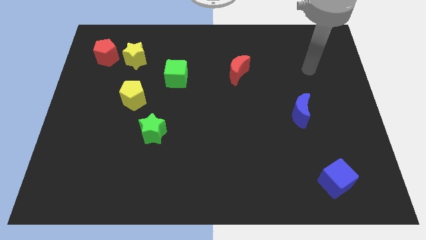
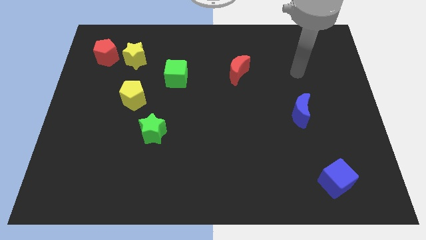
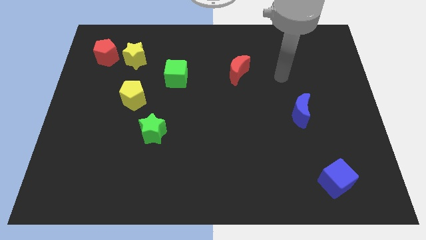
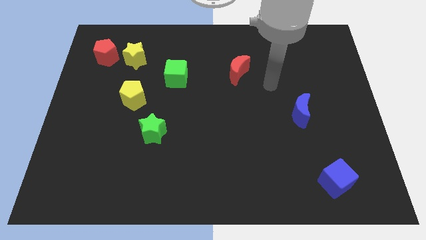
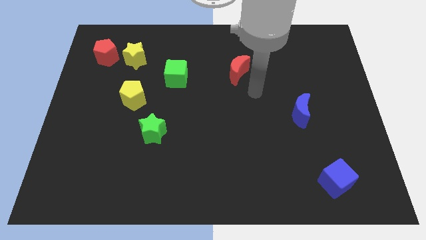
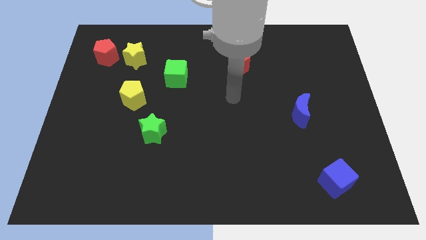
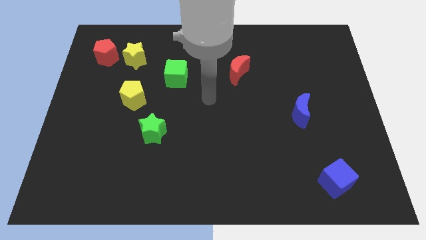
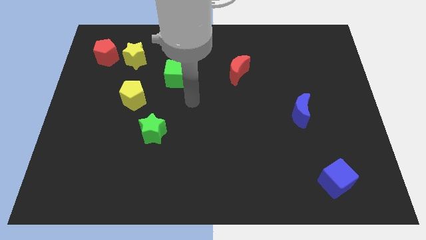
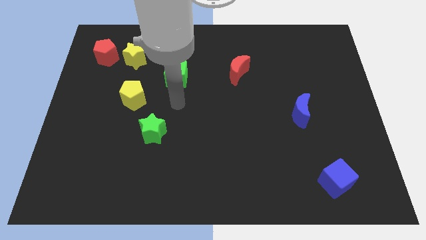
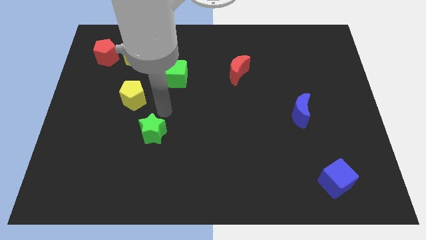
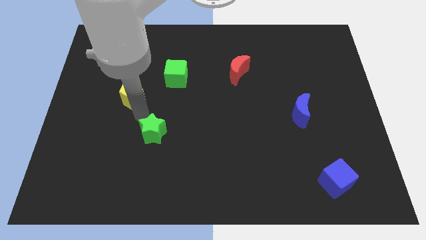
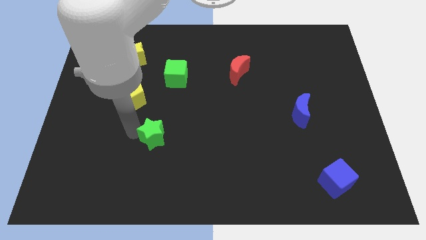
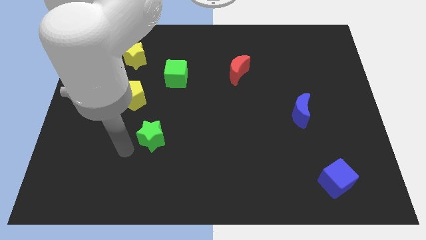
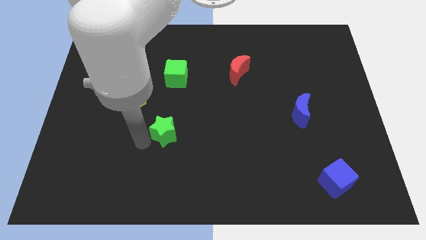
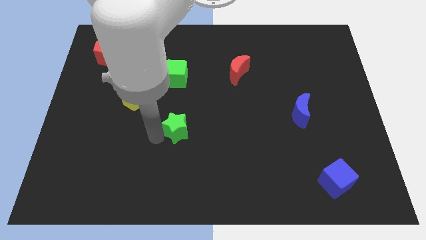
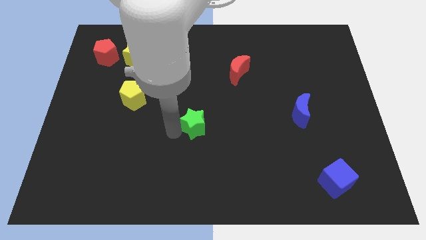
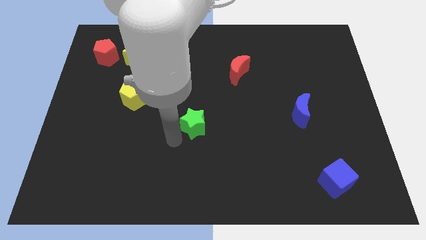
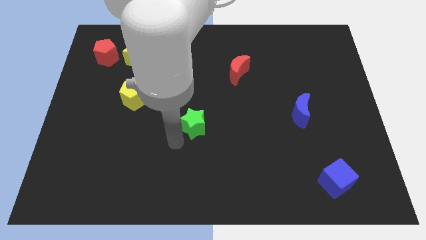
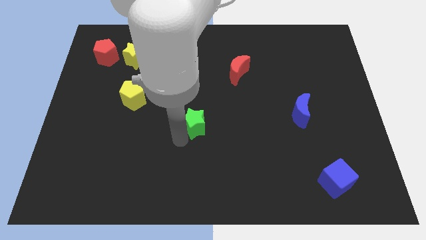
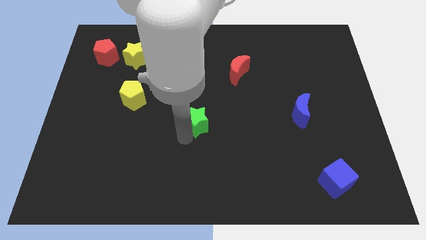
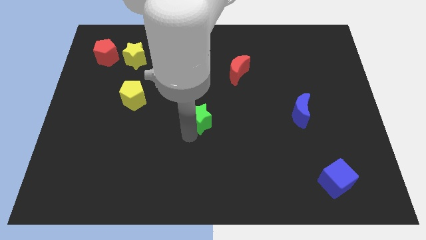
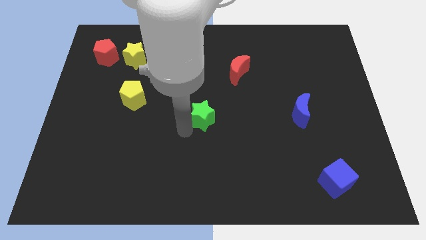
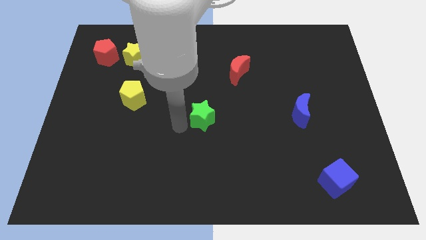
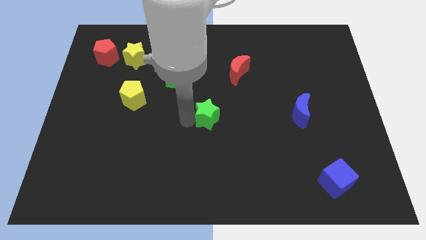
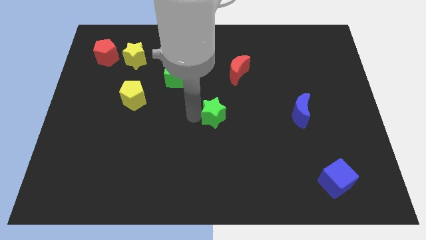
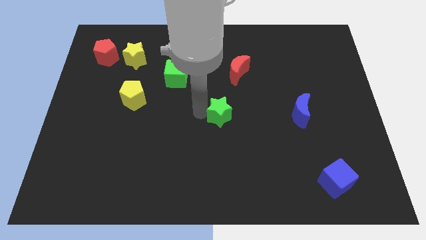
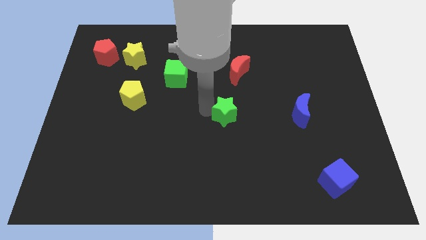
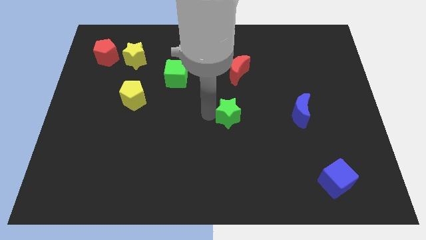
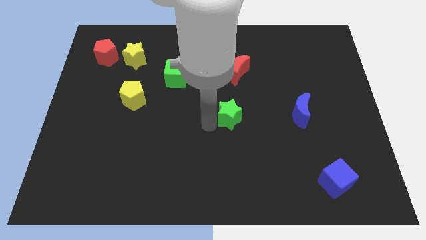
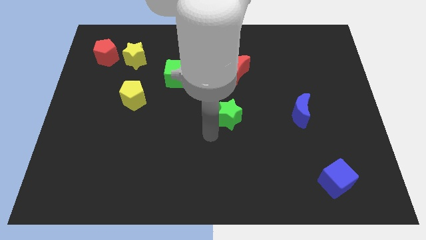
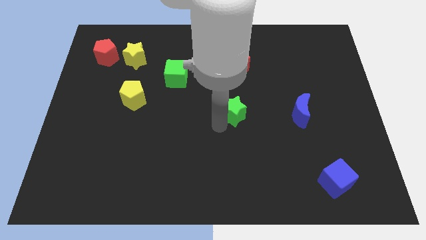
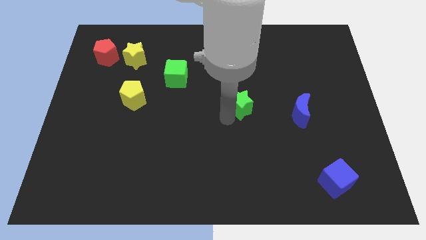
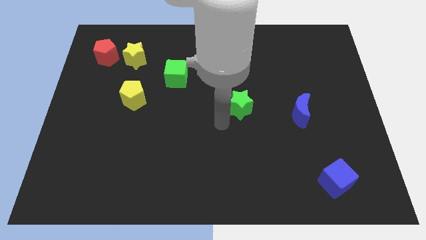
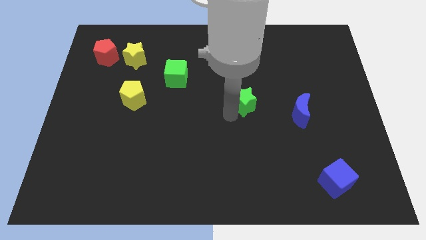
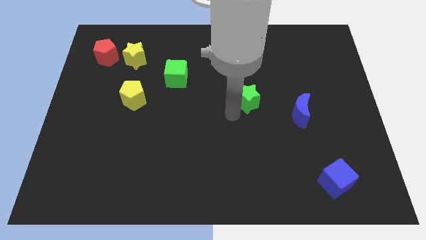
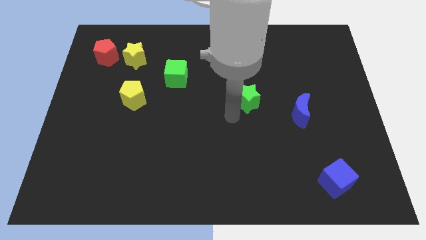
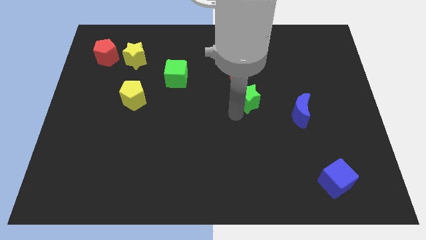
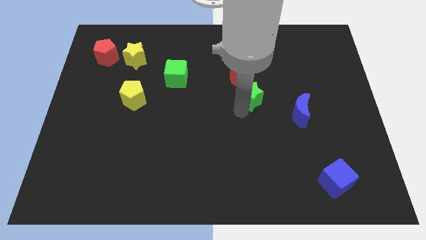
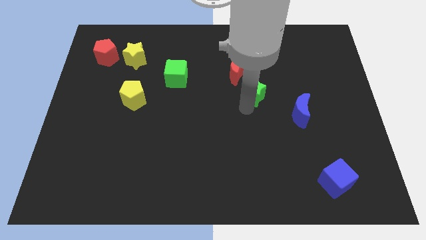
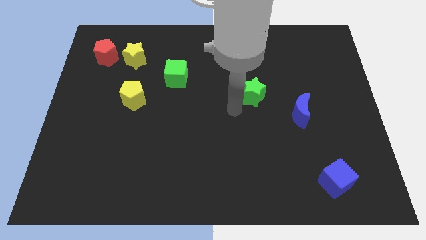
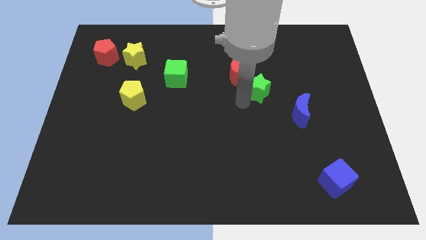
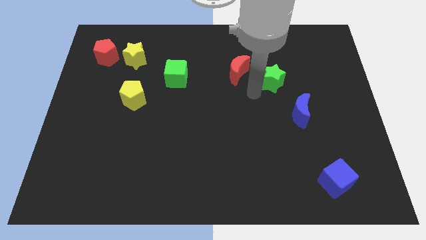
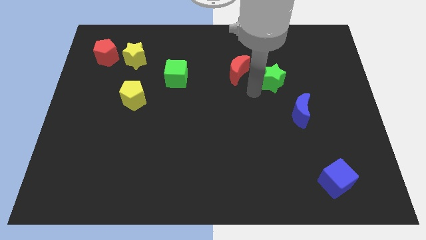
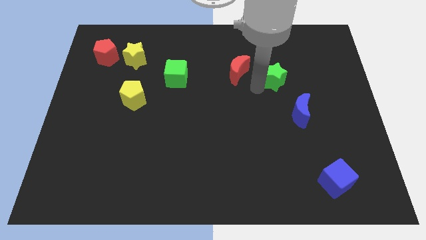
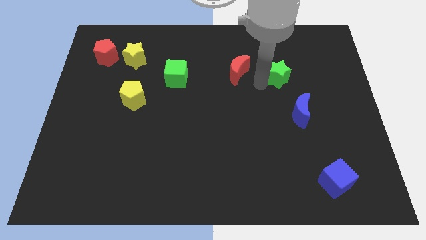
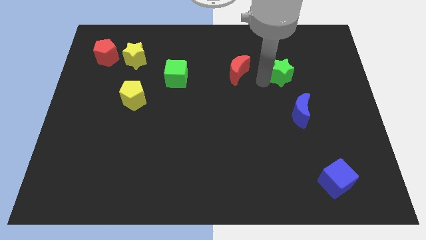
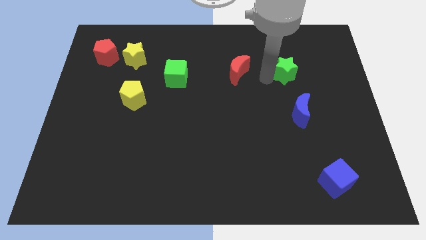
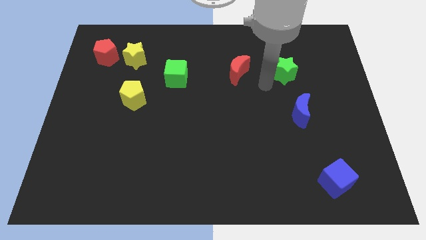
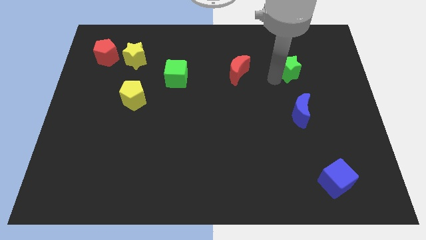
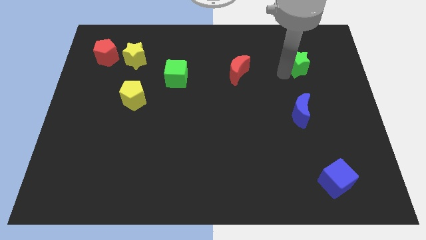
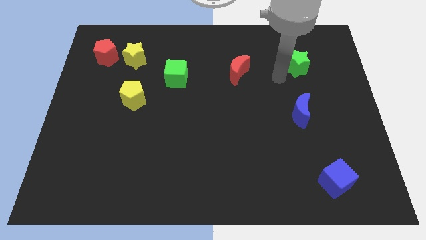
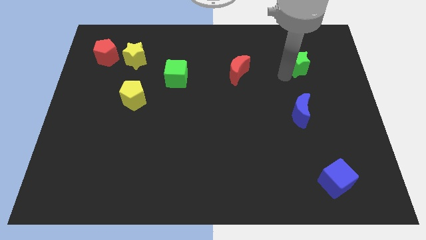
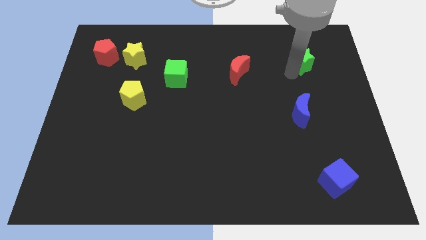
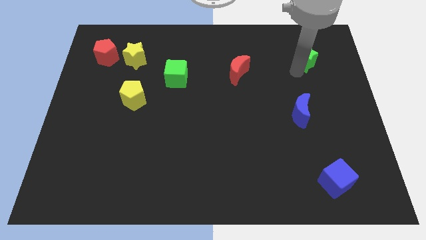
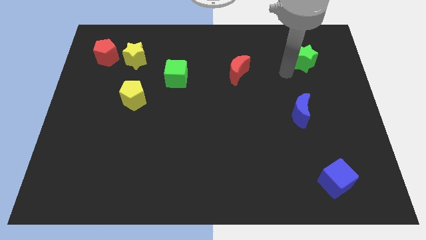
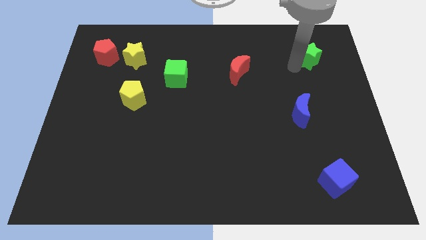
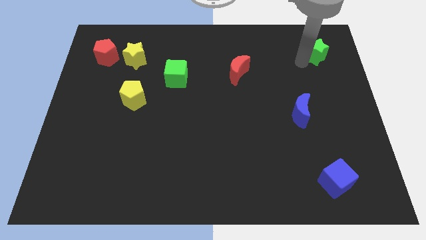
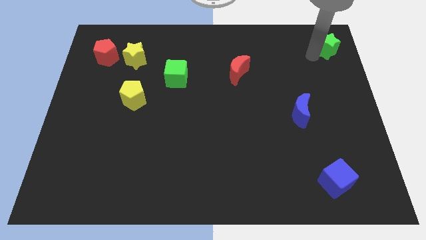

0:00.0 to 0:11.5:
put the green star to the top right of the board

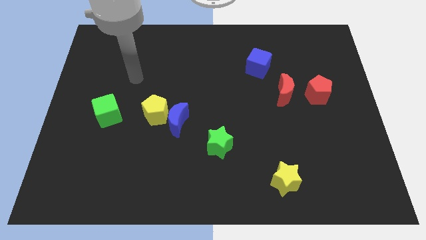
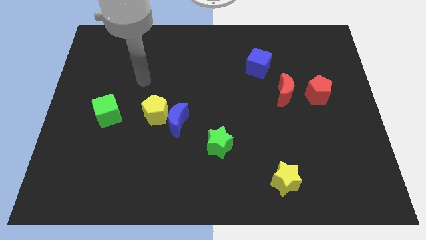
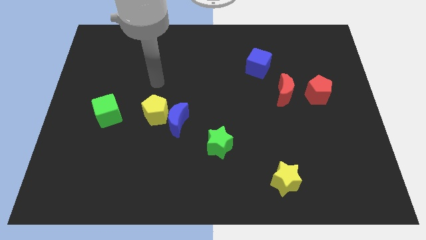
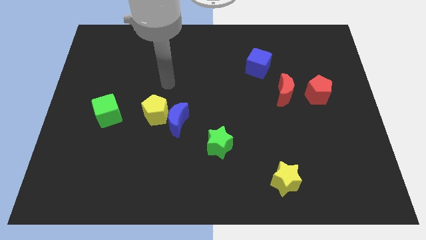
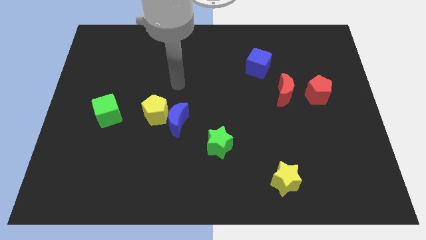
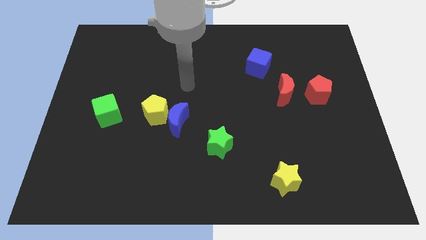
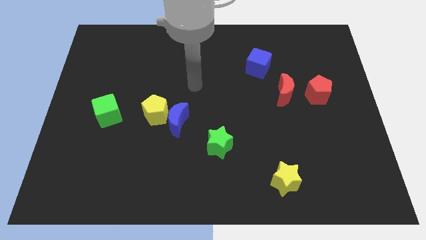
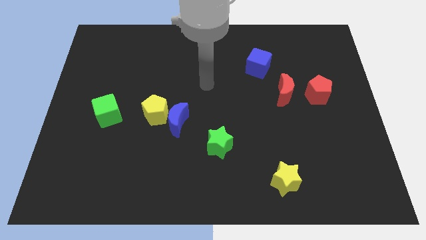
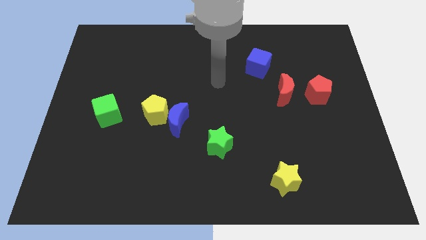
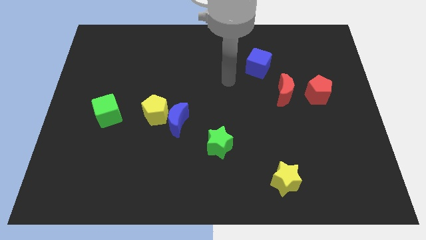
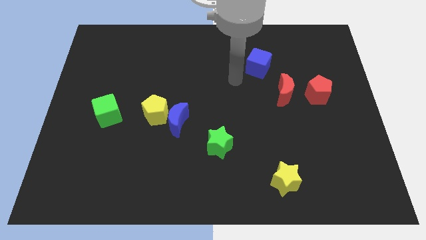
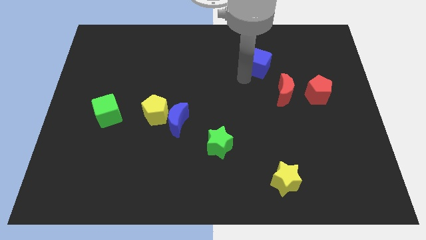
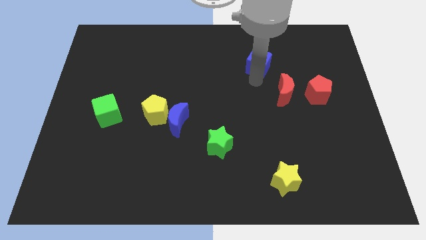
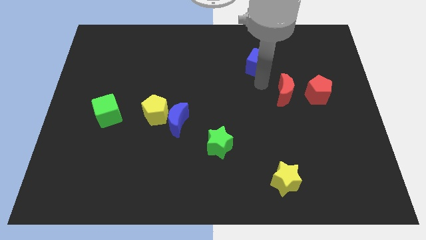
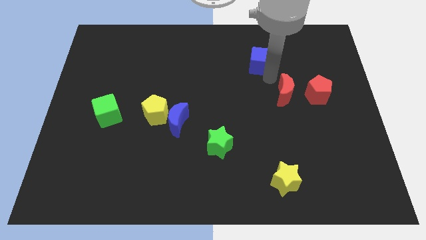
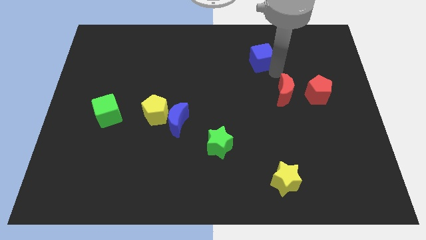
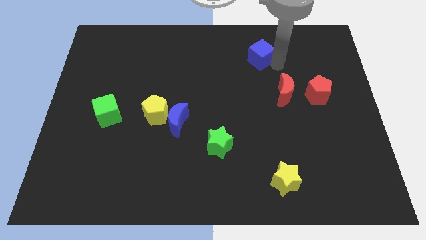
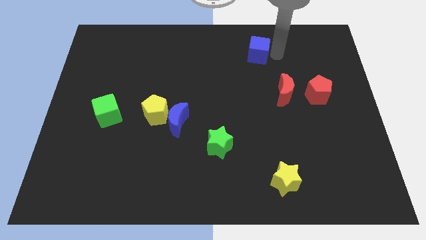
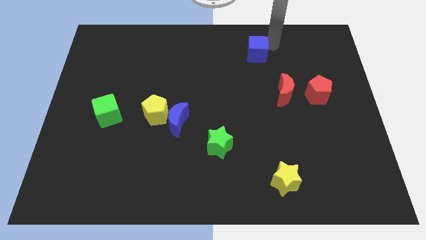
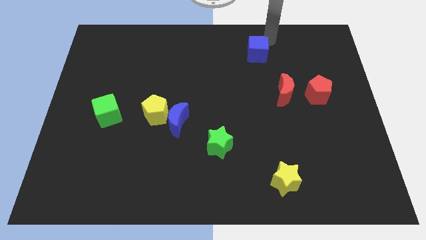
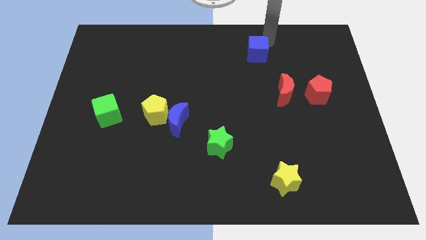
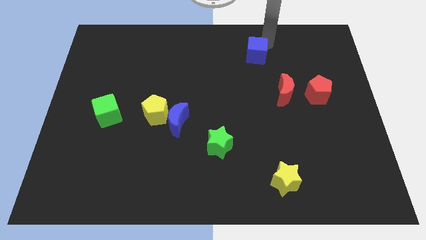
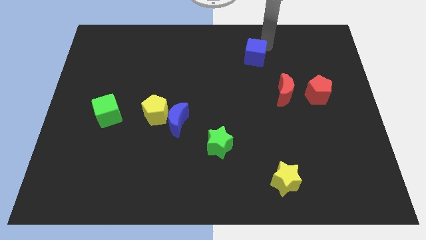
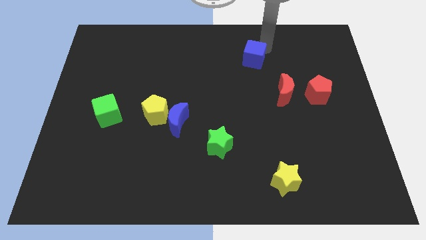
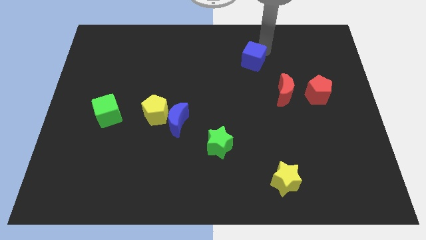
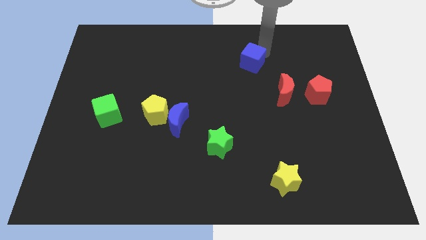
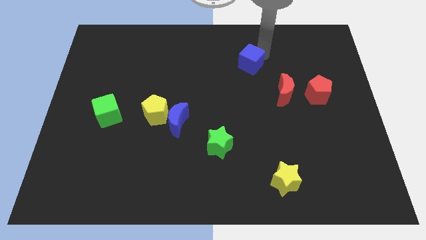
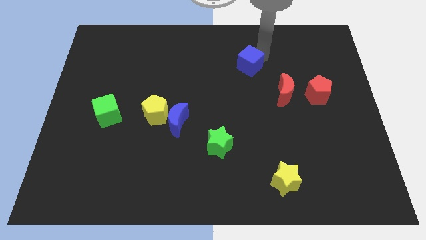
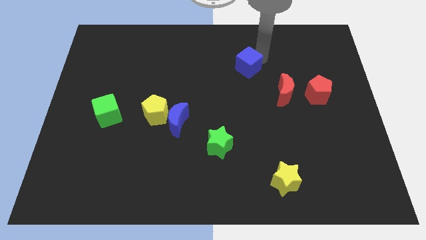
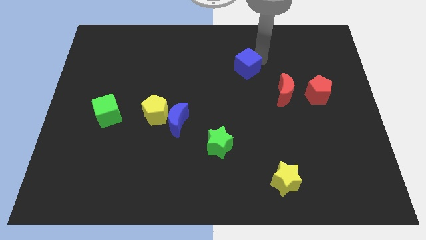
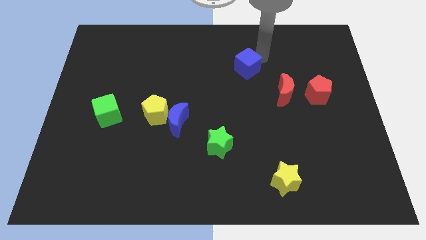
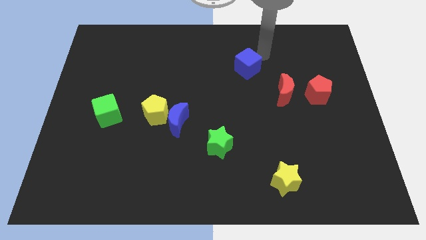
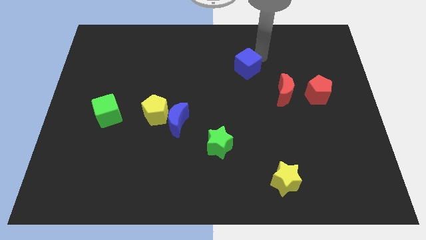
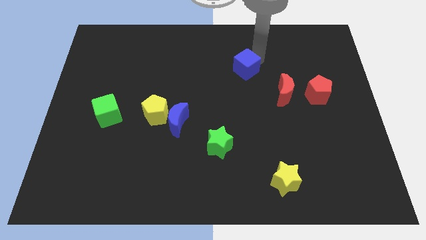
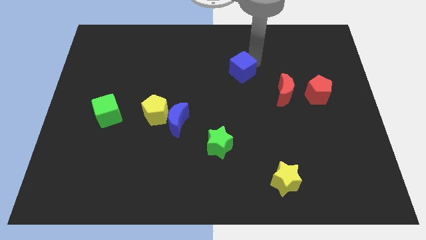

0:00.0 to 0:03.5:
slide the blue cube to the center of the board
